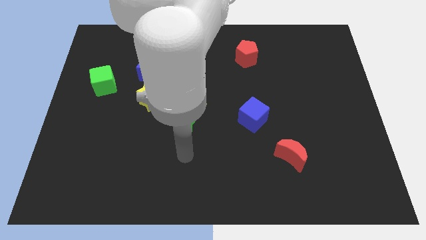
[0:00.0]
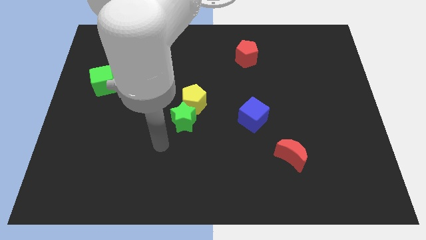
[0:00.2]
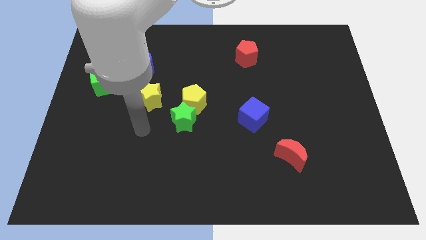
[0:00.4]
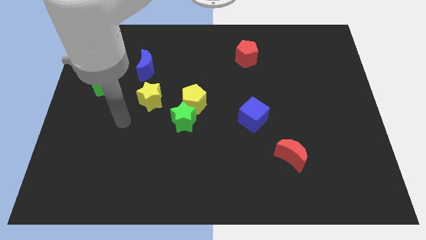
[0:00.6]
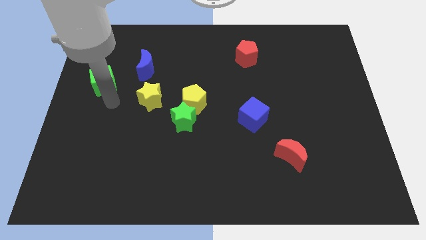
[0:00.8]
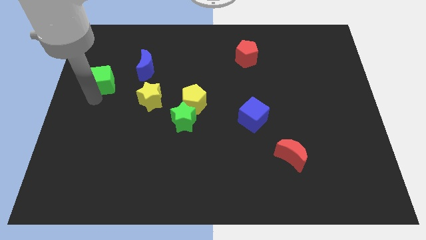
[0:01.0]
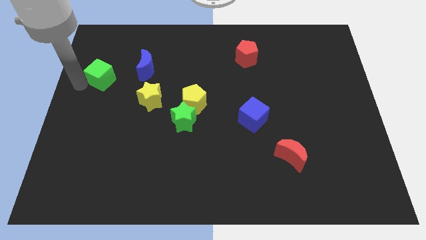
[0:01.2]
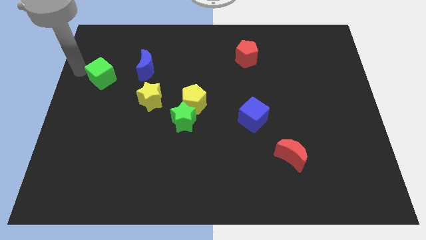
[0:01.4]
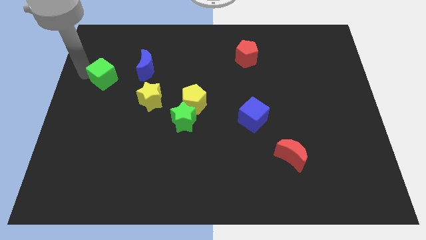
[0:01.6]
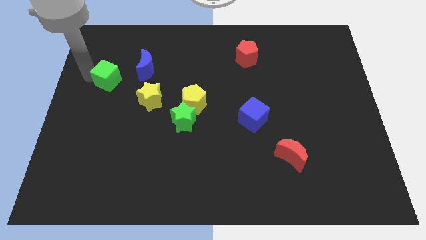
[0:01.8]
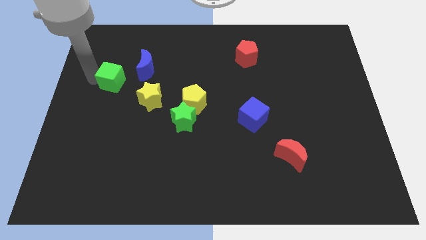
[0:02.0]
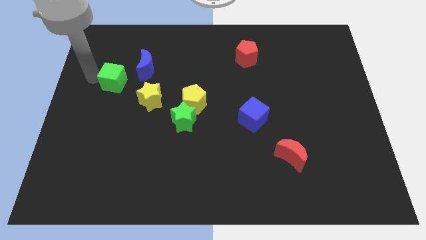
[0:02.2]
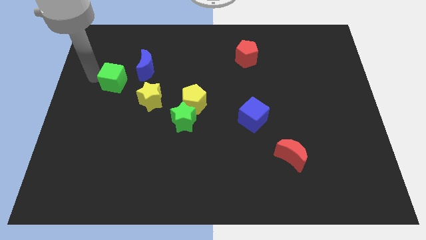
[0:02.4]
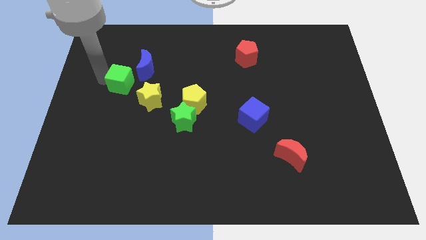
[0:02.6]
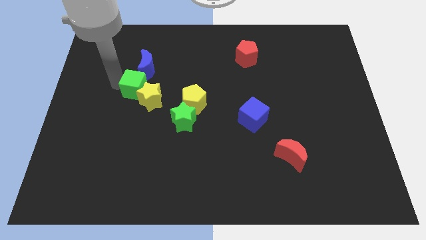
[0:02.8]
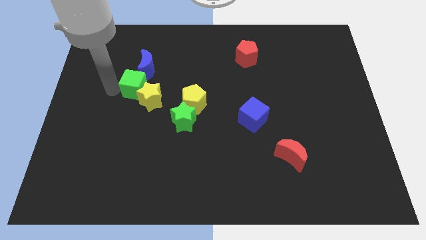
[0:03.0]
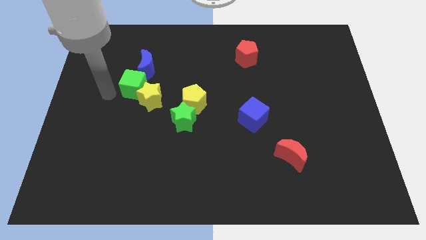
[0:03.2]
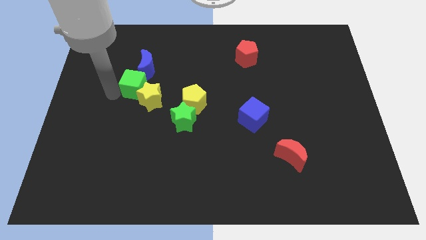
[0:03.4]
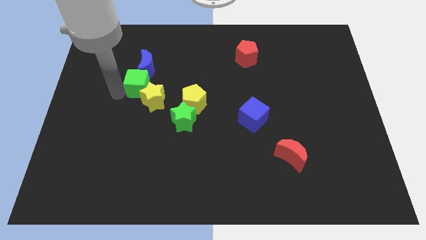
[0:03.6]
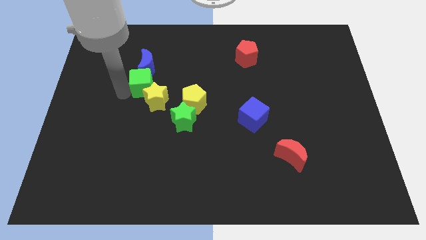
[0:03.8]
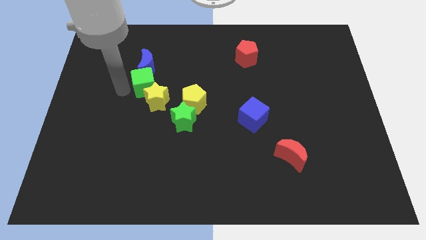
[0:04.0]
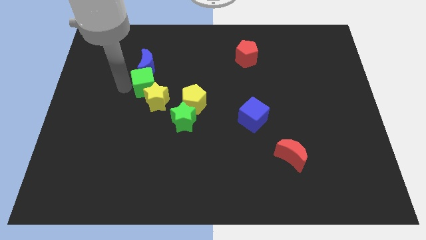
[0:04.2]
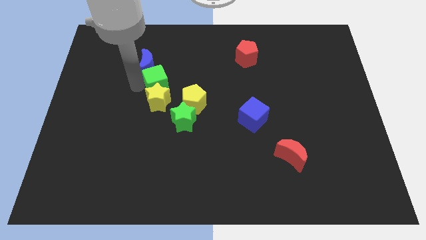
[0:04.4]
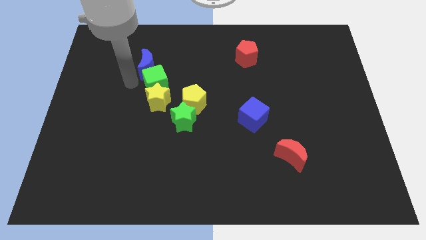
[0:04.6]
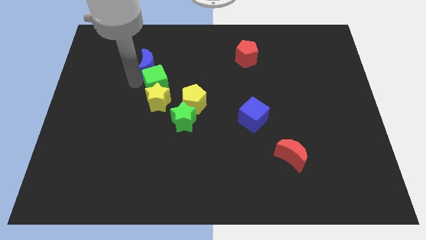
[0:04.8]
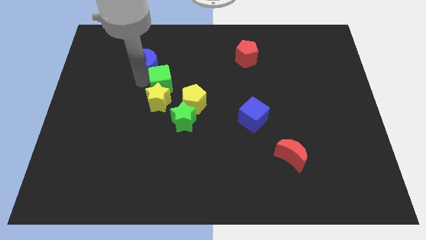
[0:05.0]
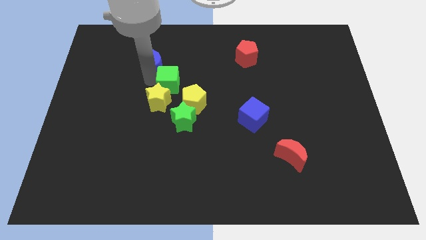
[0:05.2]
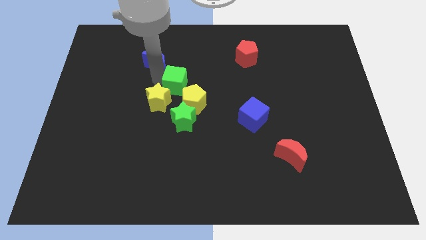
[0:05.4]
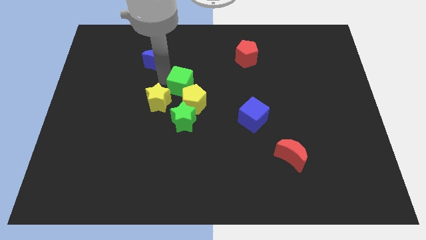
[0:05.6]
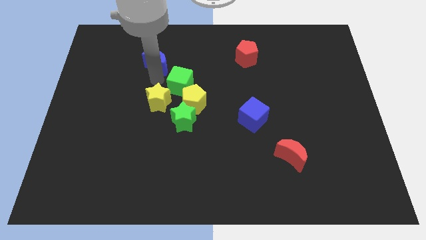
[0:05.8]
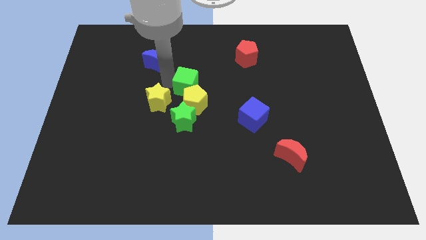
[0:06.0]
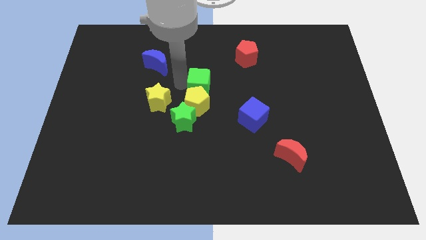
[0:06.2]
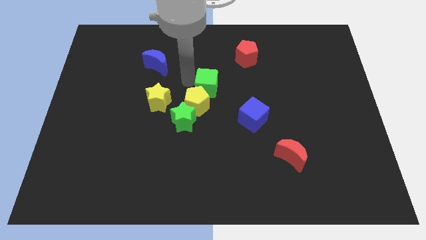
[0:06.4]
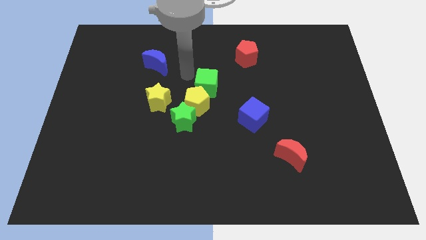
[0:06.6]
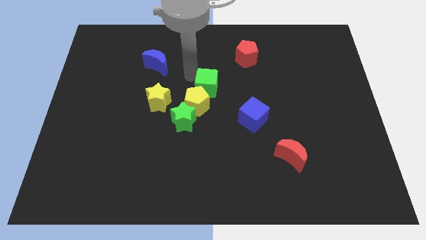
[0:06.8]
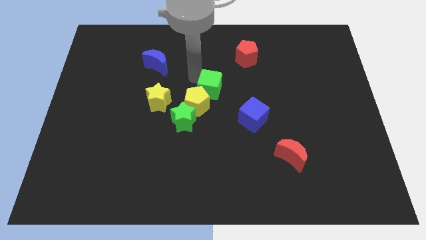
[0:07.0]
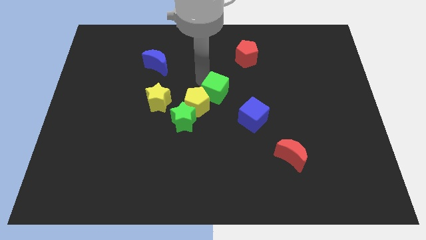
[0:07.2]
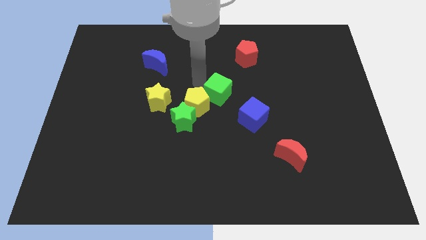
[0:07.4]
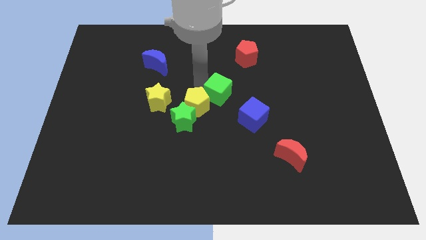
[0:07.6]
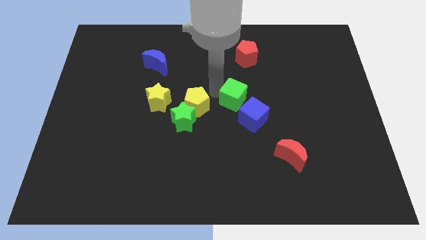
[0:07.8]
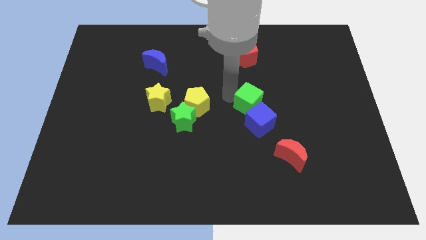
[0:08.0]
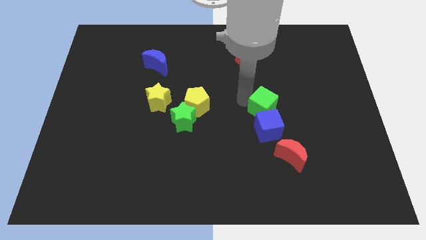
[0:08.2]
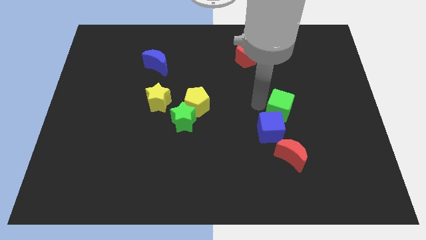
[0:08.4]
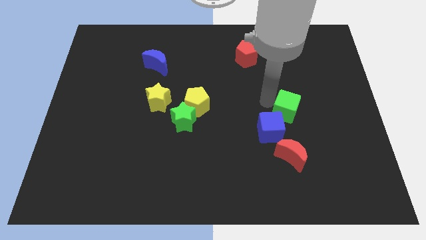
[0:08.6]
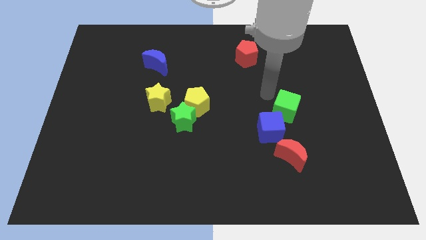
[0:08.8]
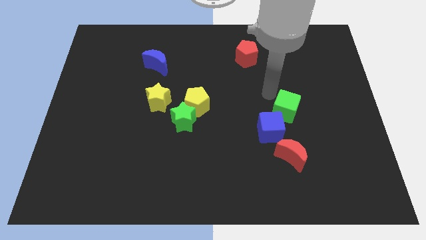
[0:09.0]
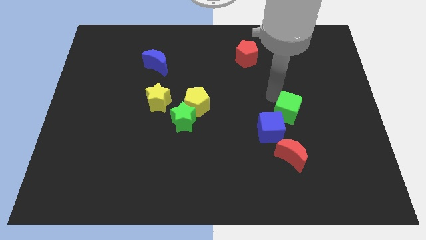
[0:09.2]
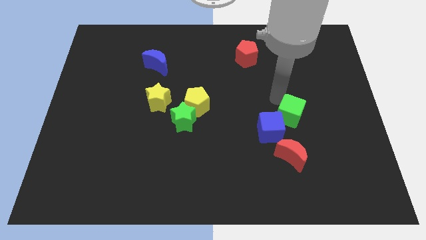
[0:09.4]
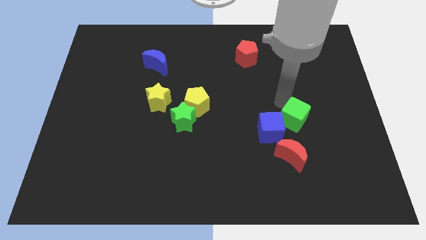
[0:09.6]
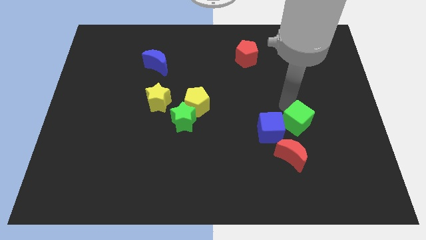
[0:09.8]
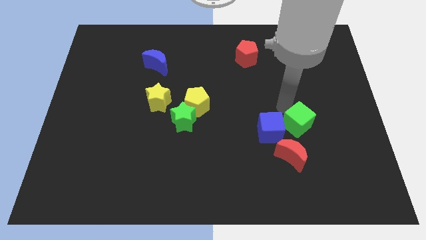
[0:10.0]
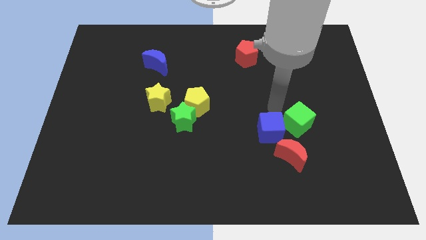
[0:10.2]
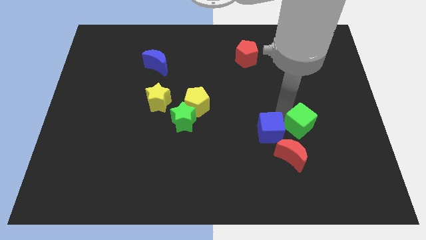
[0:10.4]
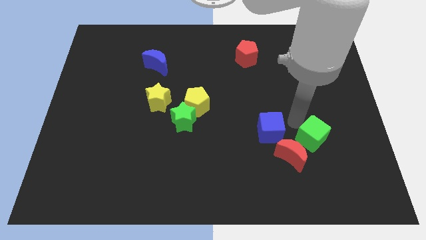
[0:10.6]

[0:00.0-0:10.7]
put the green cube to the right of the red moon

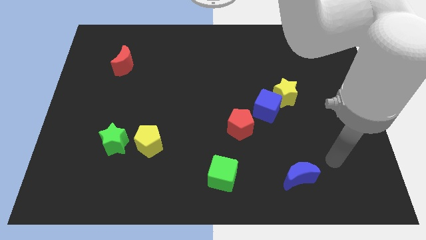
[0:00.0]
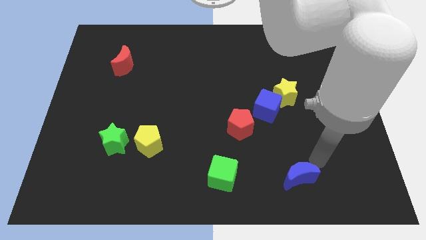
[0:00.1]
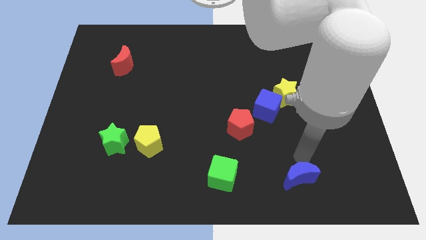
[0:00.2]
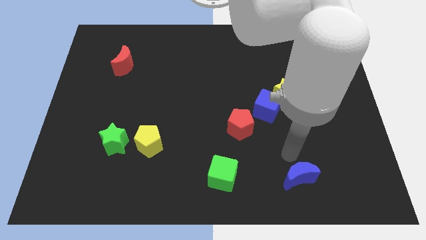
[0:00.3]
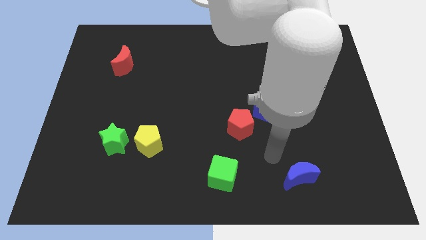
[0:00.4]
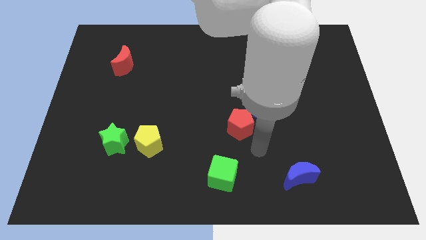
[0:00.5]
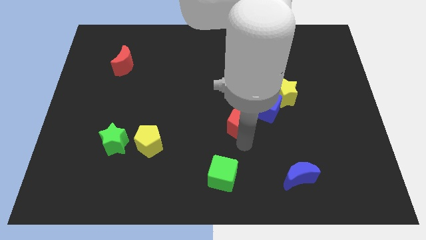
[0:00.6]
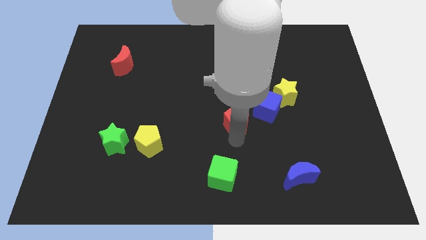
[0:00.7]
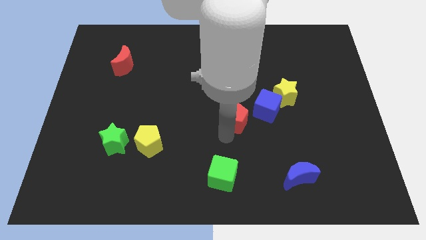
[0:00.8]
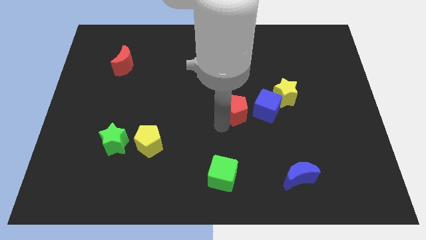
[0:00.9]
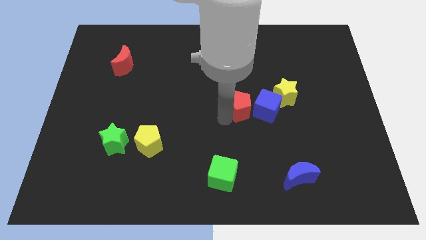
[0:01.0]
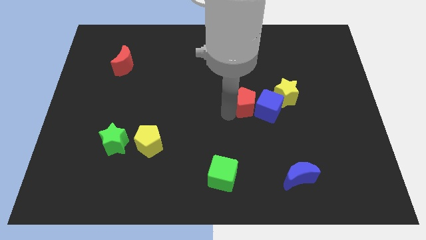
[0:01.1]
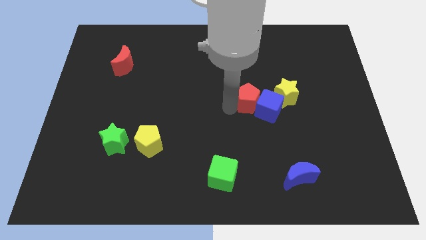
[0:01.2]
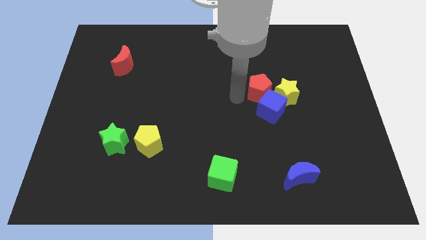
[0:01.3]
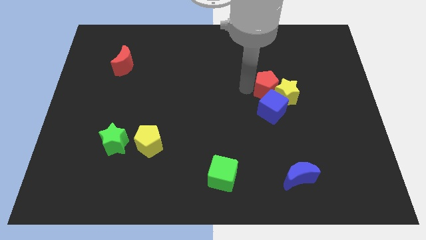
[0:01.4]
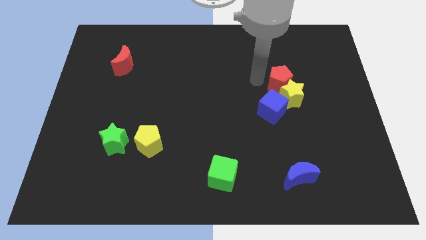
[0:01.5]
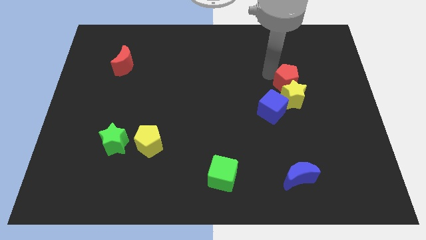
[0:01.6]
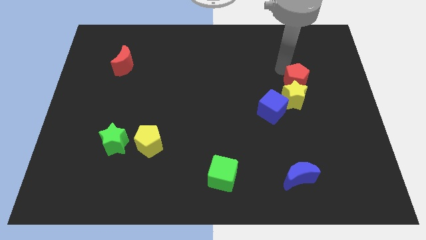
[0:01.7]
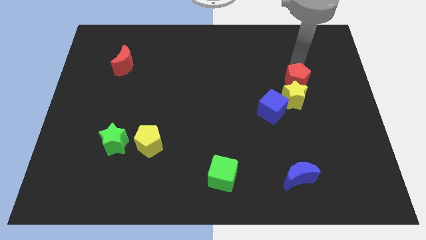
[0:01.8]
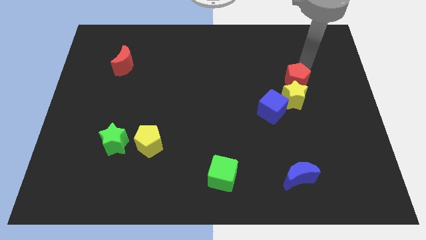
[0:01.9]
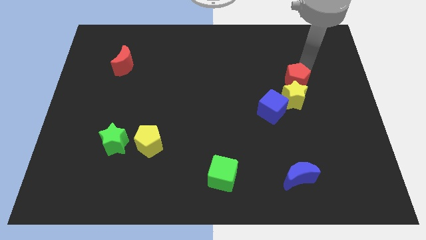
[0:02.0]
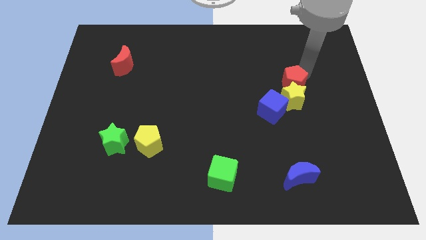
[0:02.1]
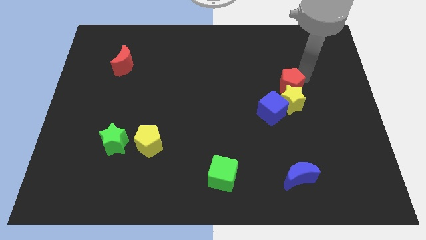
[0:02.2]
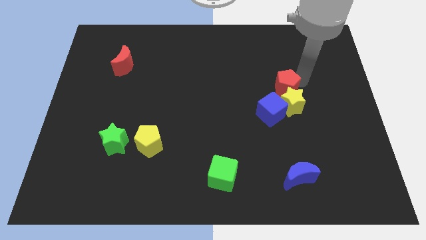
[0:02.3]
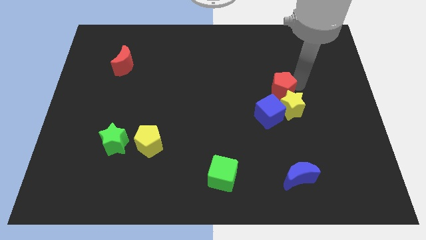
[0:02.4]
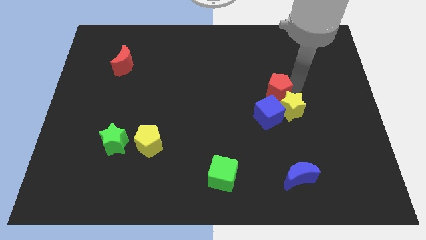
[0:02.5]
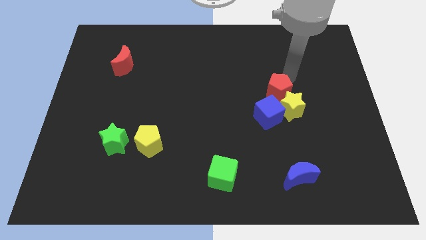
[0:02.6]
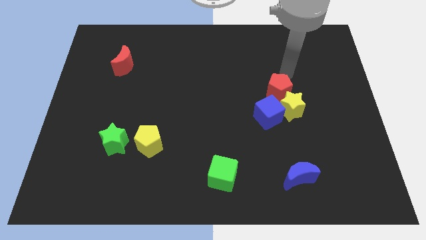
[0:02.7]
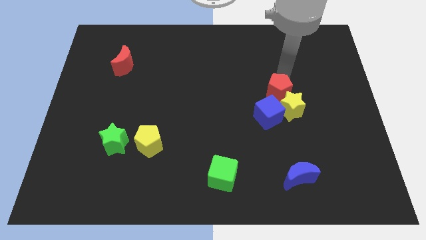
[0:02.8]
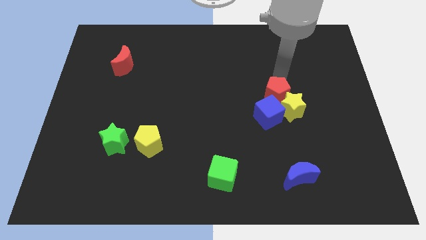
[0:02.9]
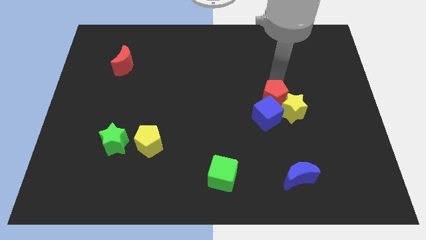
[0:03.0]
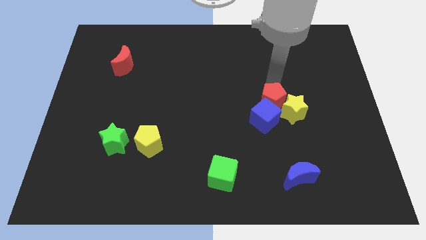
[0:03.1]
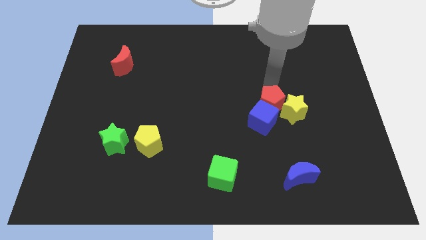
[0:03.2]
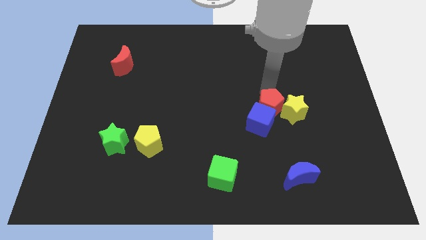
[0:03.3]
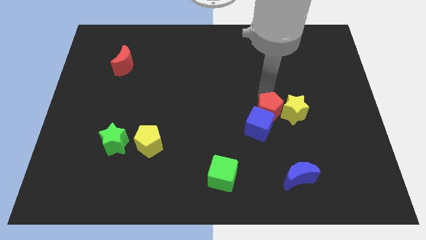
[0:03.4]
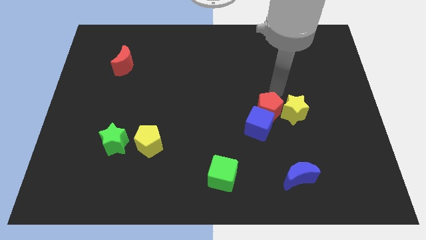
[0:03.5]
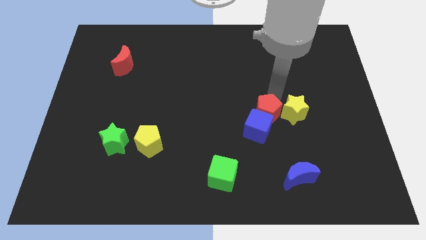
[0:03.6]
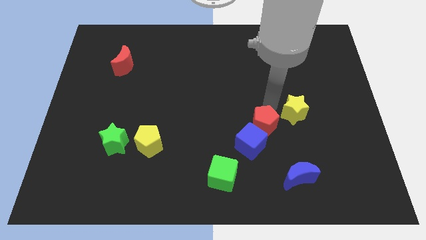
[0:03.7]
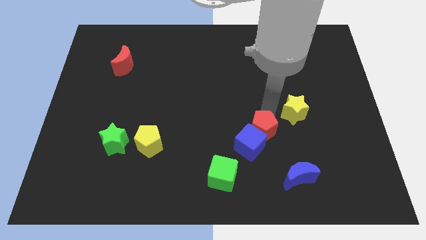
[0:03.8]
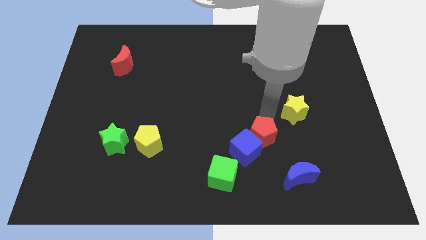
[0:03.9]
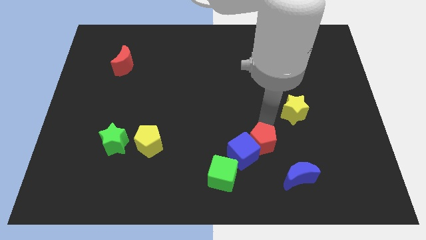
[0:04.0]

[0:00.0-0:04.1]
slide the red pentagon to the top right of the green cube
